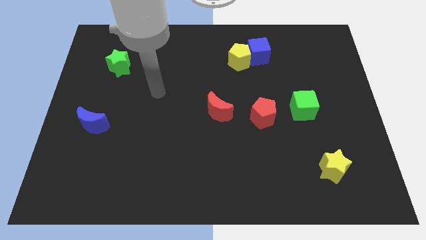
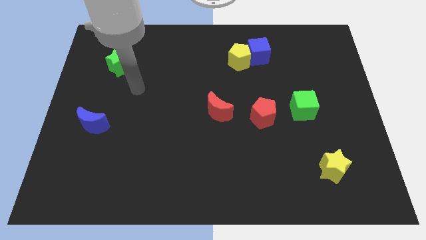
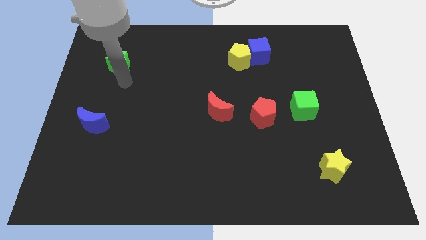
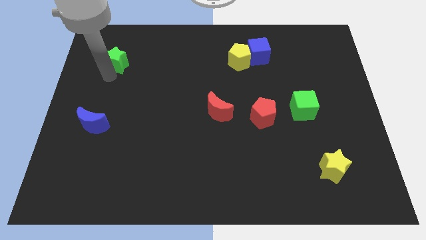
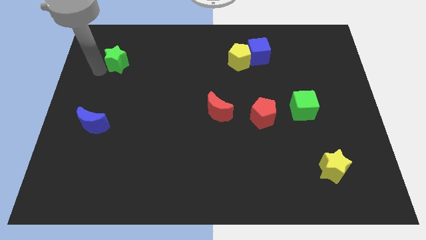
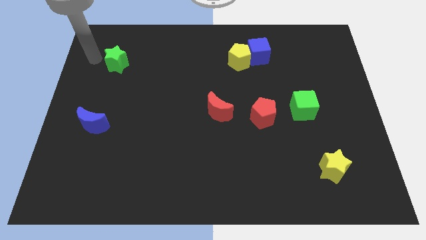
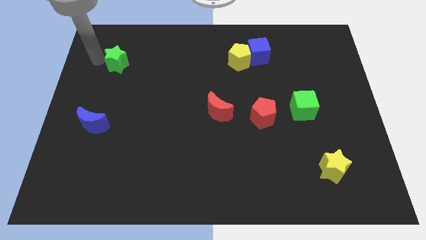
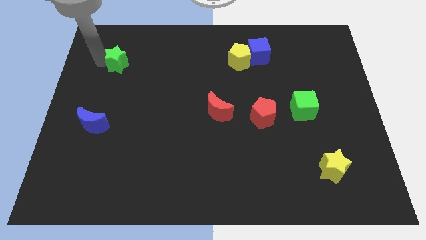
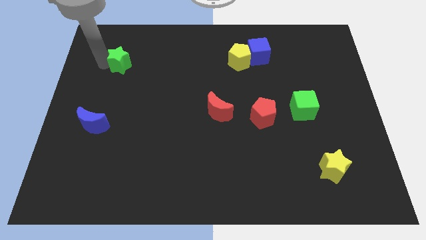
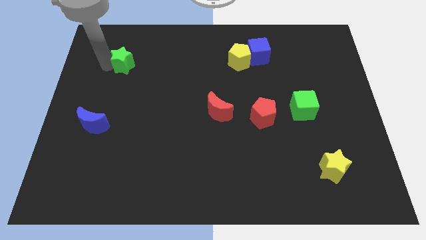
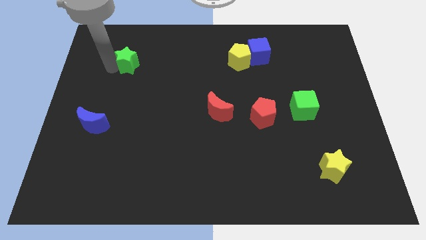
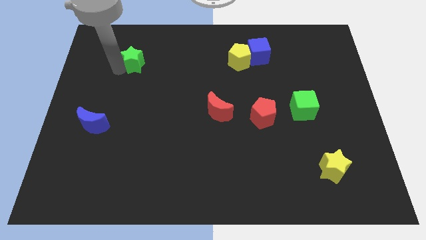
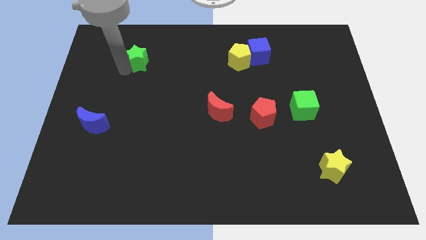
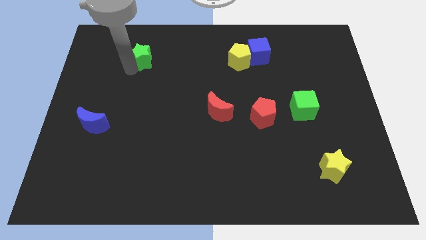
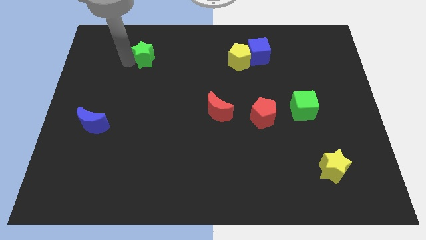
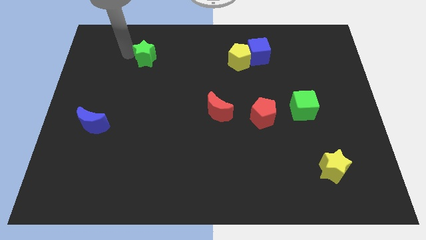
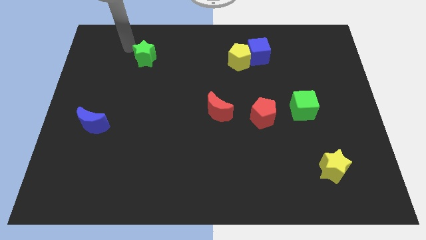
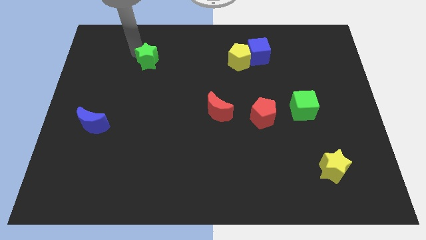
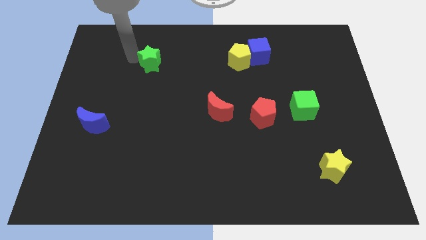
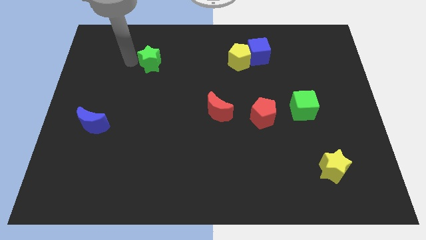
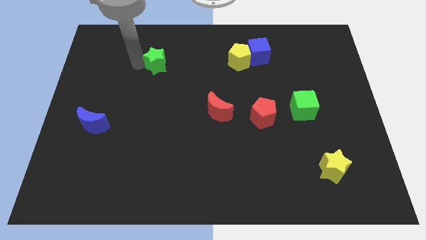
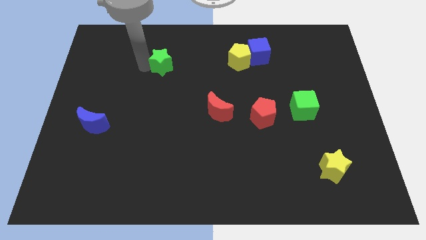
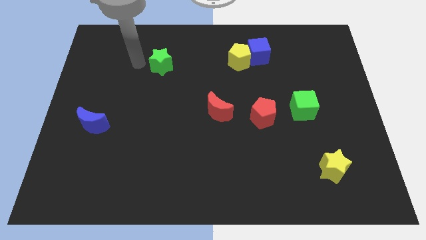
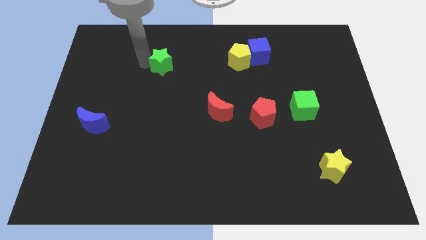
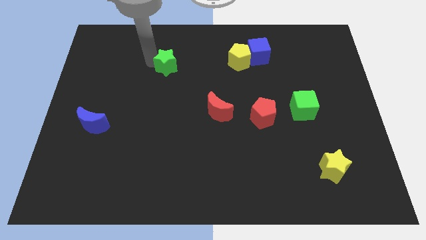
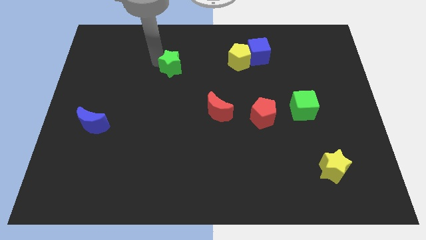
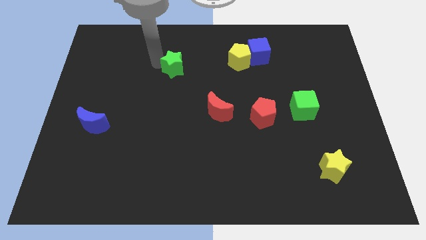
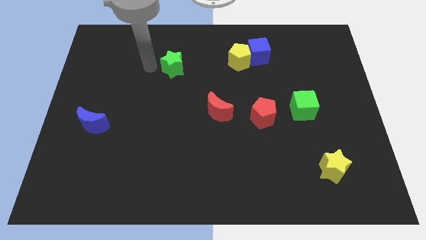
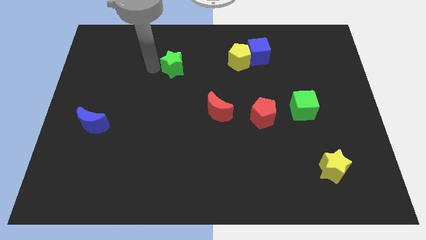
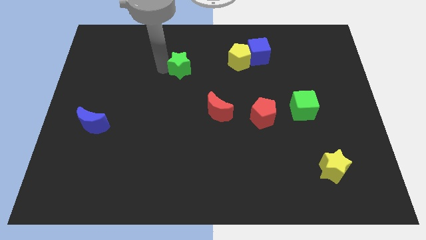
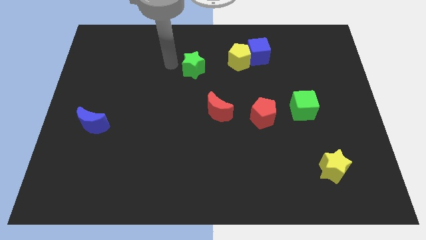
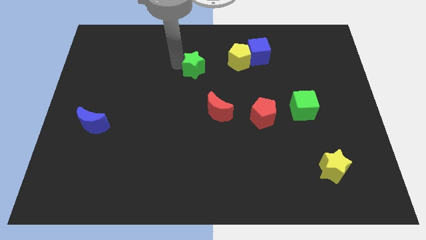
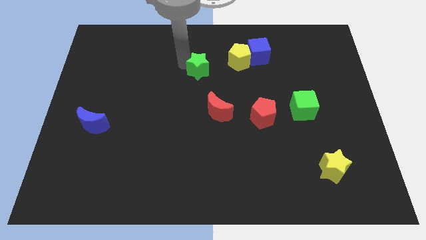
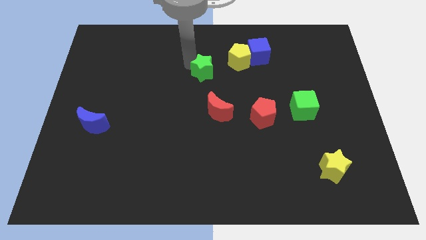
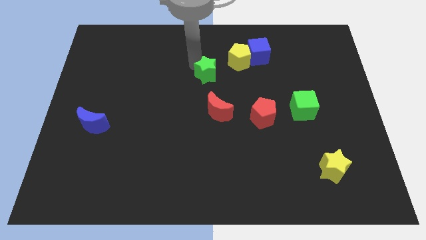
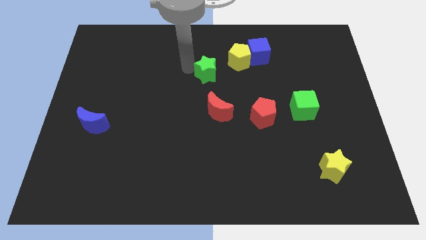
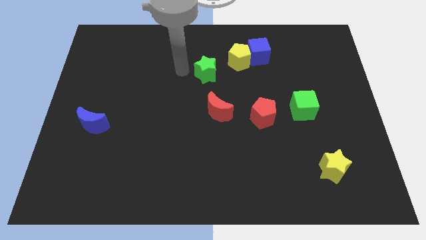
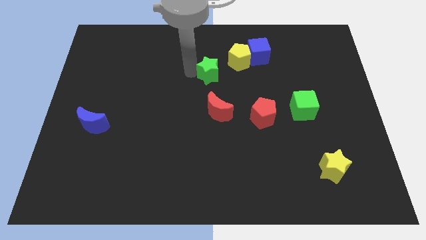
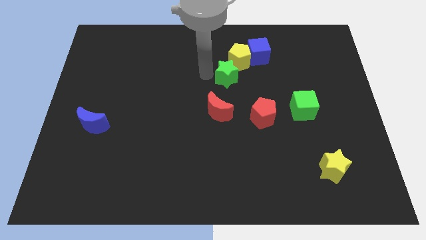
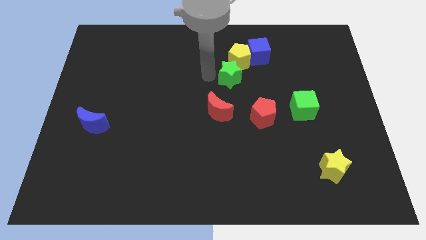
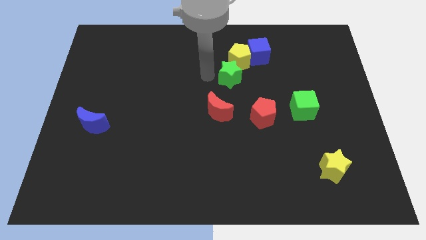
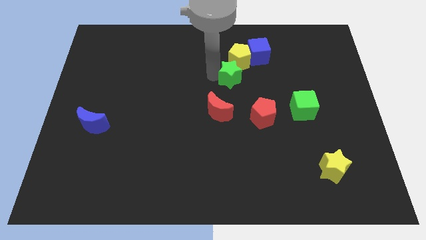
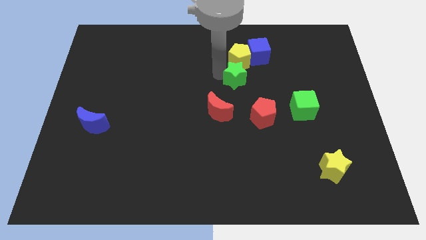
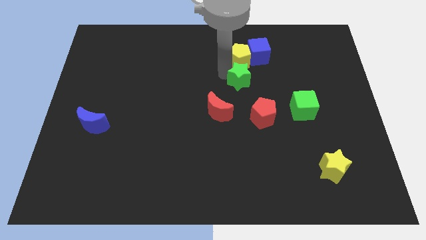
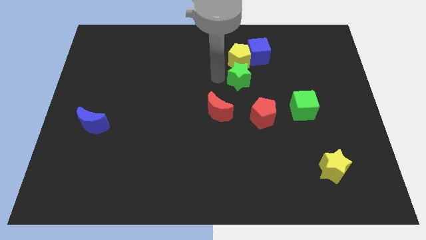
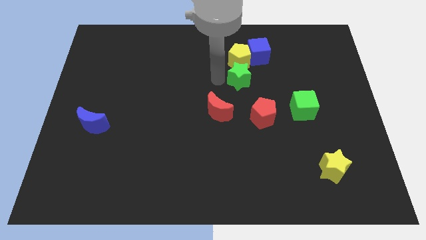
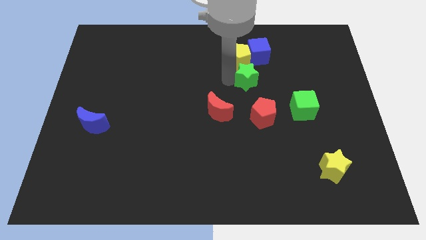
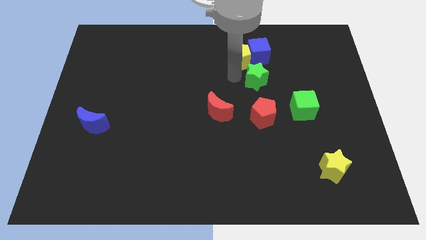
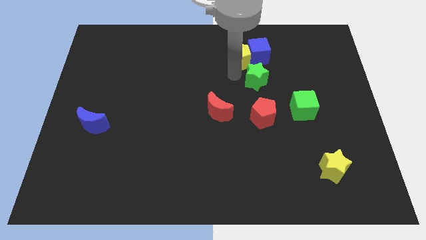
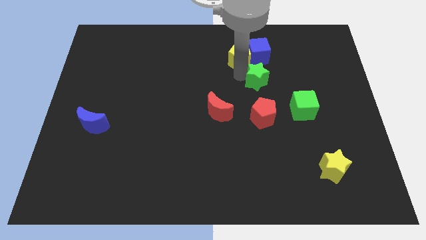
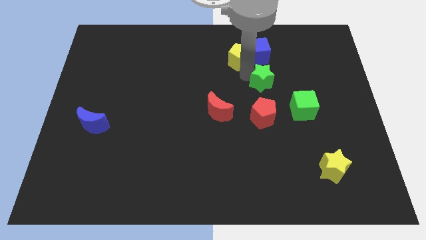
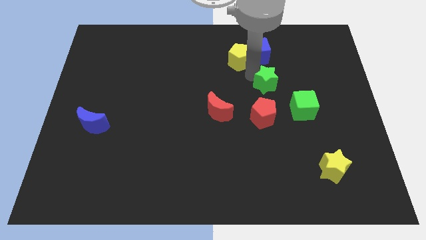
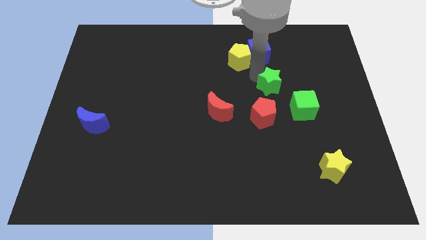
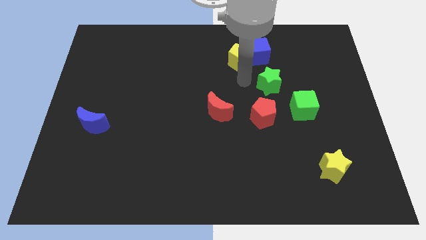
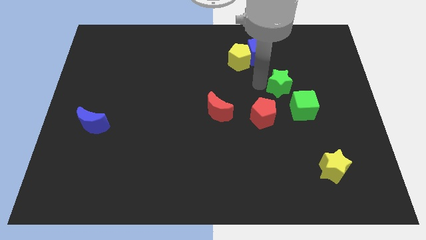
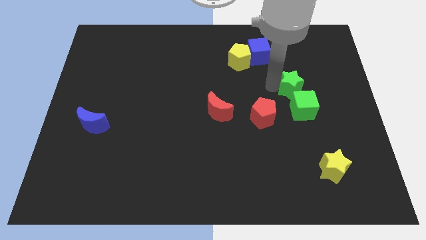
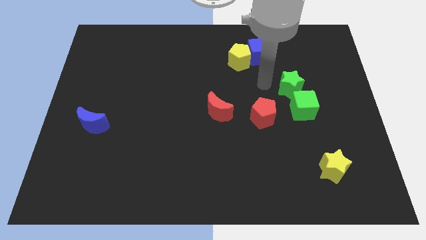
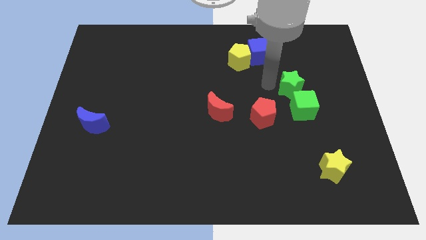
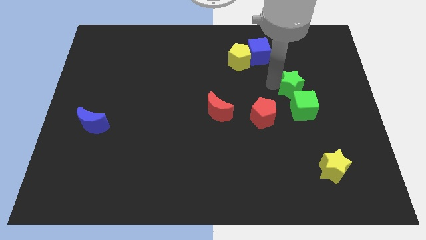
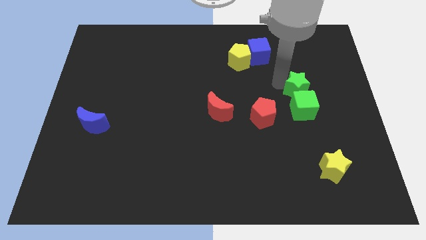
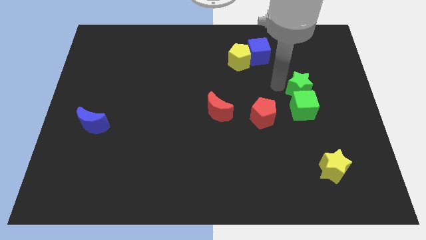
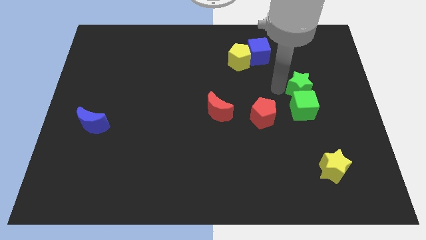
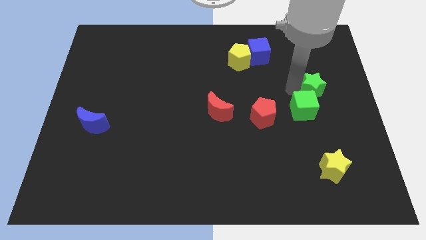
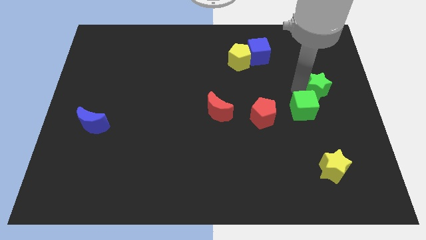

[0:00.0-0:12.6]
slide the green star to the right side of the board
